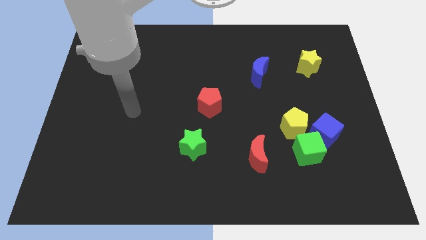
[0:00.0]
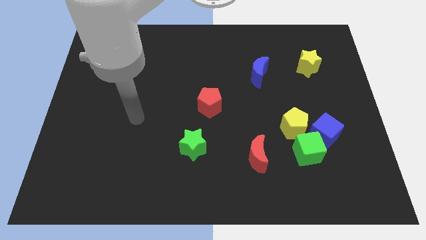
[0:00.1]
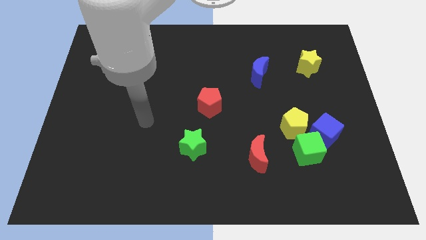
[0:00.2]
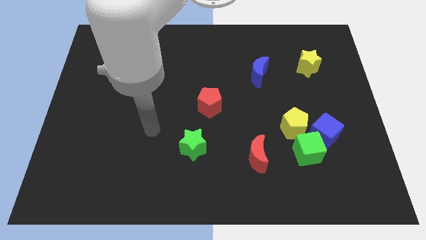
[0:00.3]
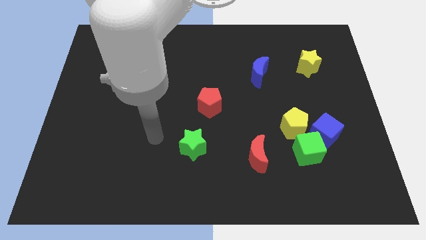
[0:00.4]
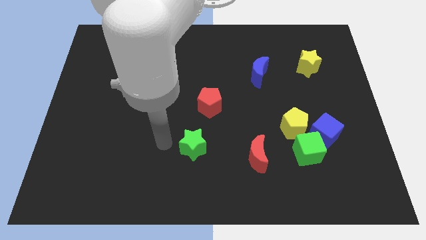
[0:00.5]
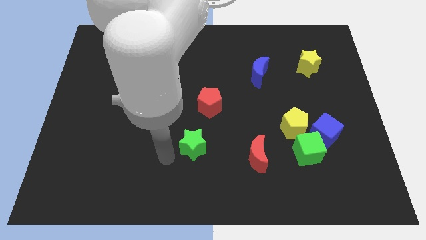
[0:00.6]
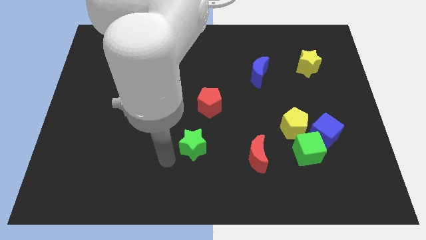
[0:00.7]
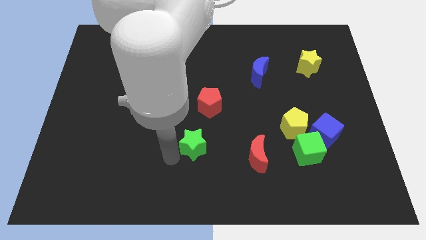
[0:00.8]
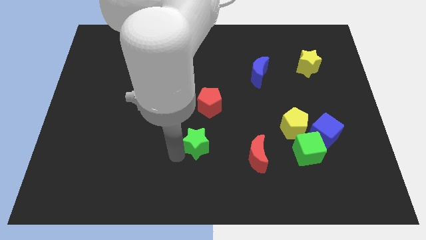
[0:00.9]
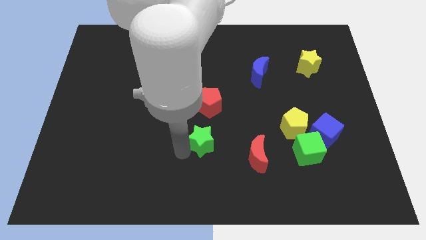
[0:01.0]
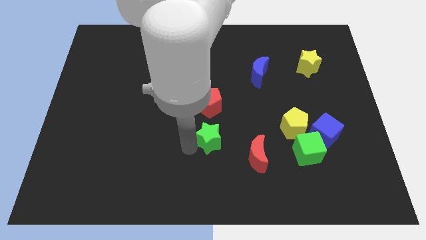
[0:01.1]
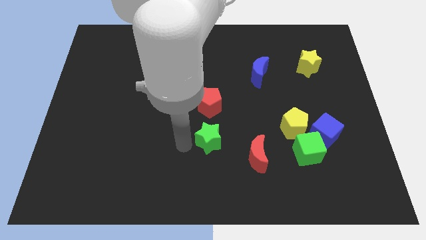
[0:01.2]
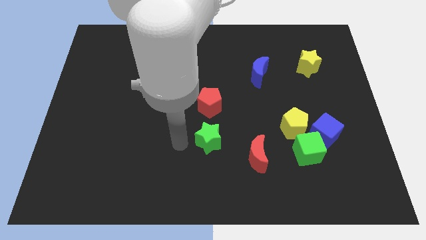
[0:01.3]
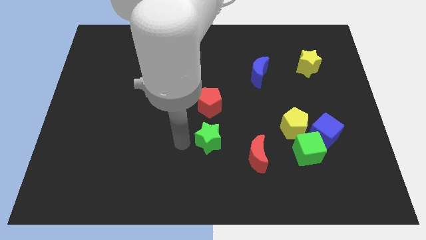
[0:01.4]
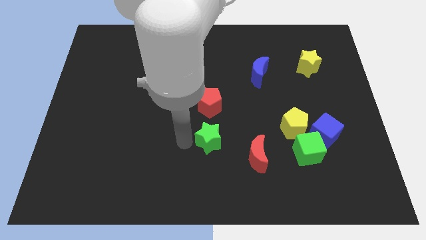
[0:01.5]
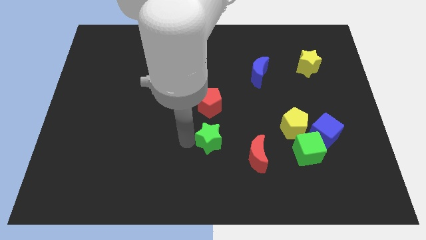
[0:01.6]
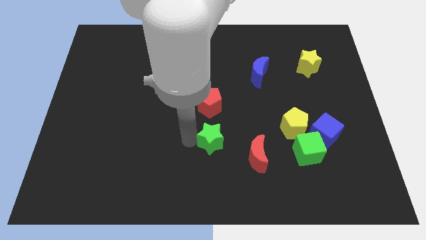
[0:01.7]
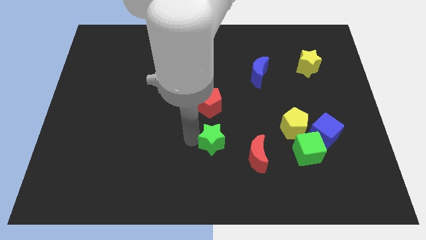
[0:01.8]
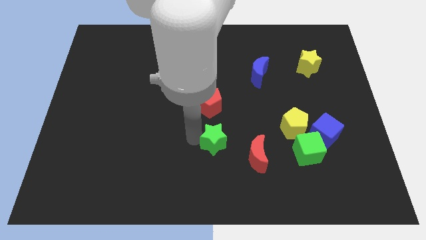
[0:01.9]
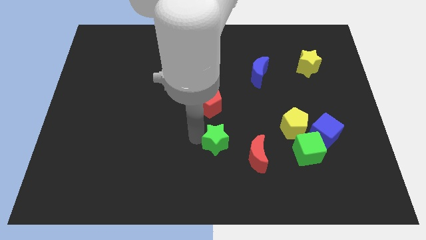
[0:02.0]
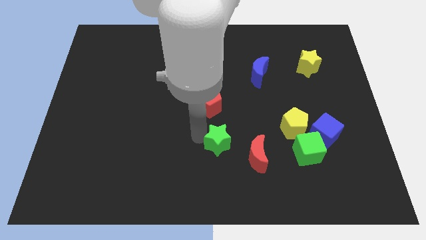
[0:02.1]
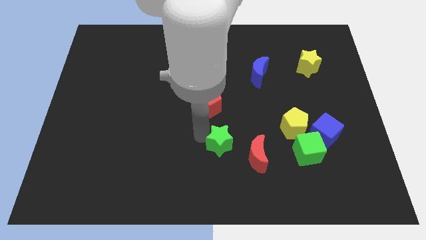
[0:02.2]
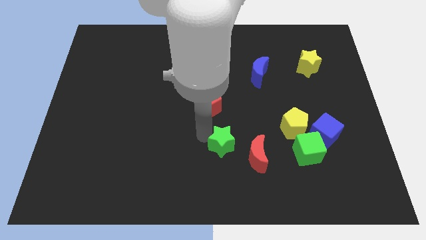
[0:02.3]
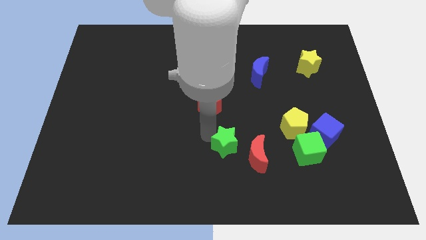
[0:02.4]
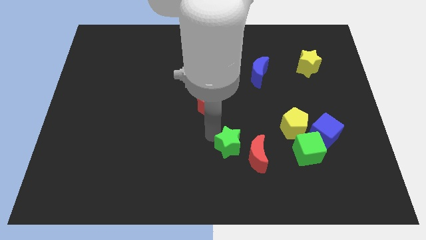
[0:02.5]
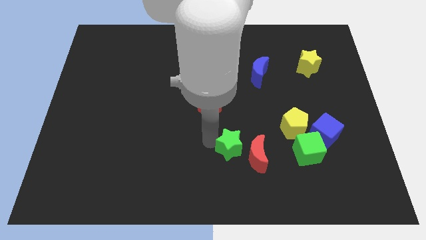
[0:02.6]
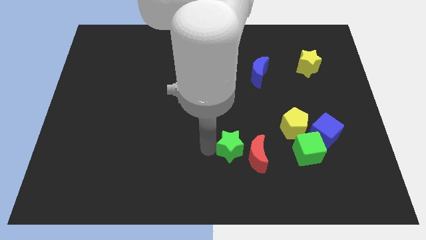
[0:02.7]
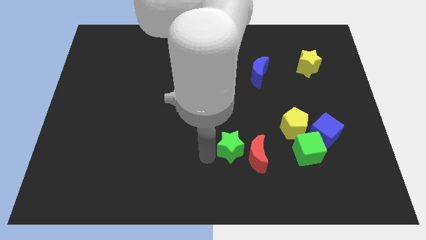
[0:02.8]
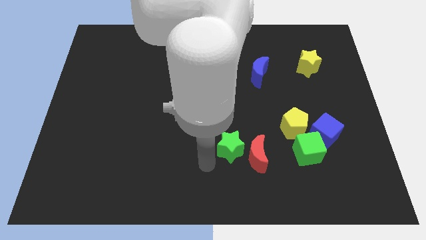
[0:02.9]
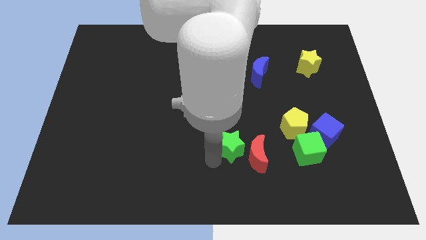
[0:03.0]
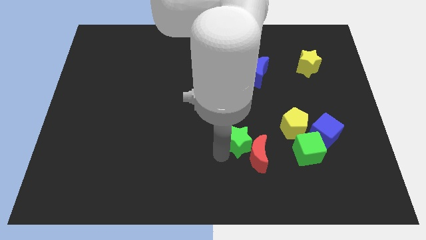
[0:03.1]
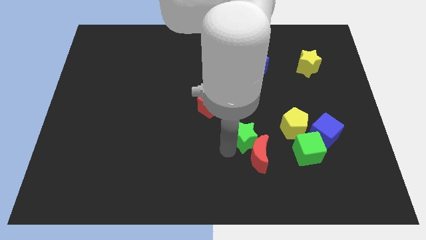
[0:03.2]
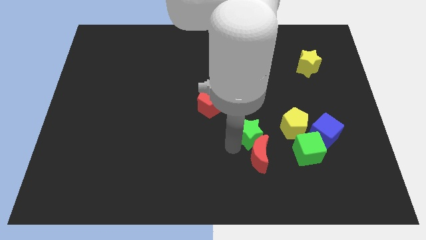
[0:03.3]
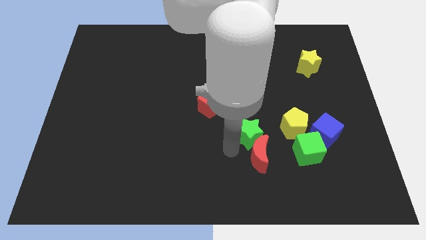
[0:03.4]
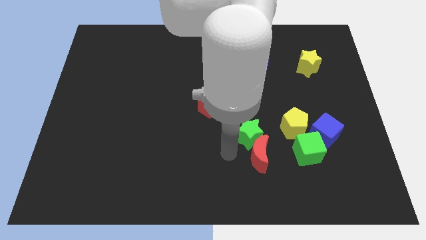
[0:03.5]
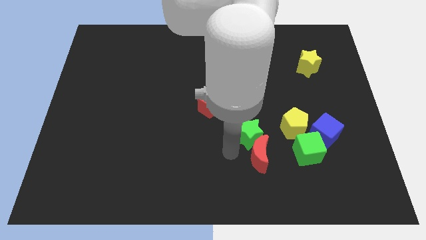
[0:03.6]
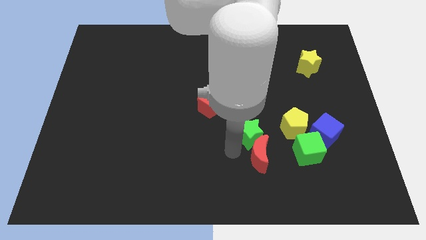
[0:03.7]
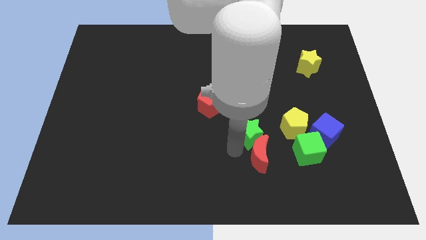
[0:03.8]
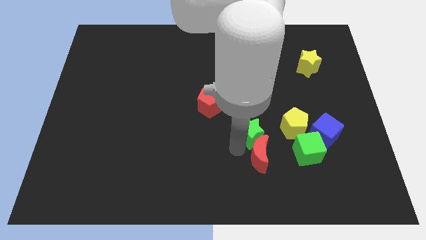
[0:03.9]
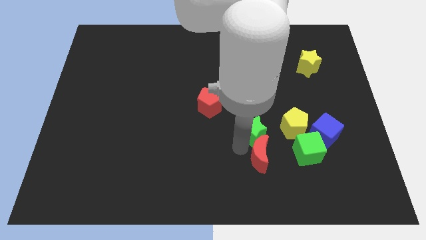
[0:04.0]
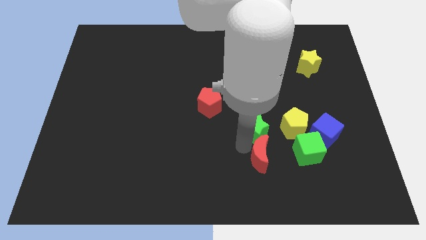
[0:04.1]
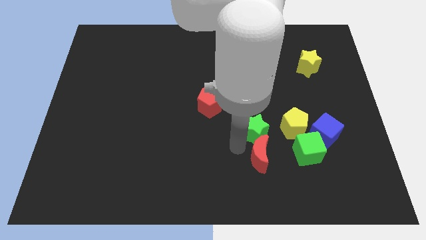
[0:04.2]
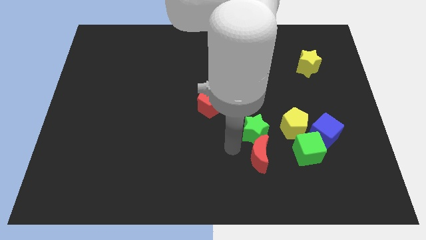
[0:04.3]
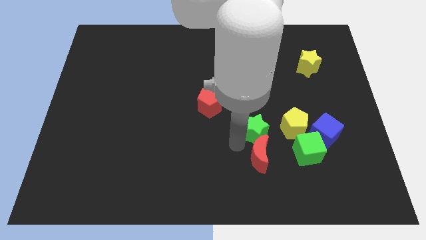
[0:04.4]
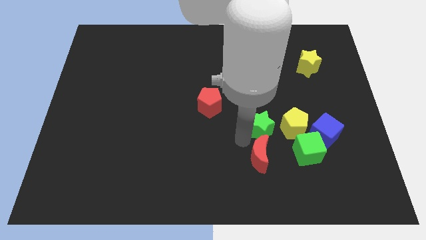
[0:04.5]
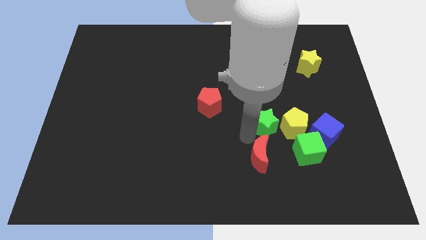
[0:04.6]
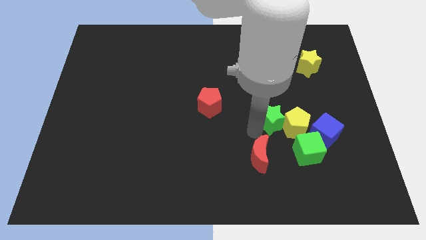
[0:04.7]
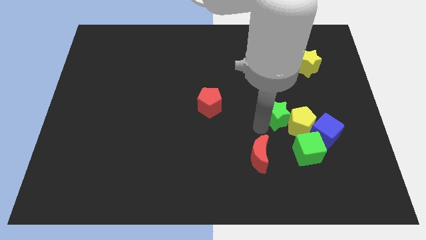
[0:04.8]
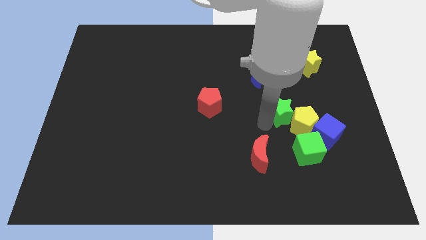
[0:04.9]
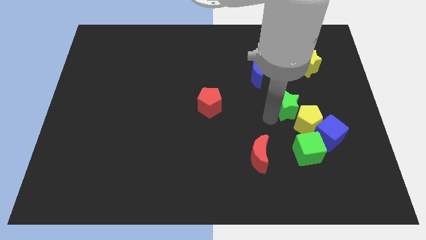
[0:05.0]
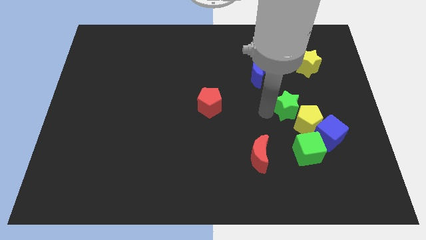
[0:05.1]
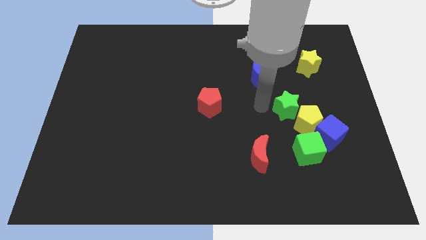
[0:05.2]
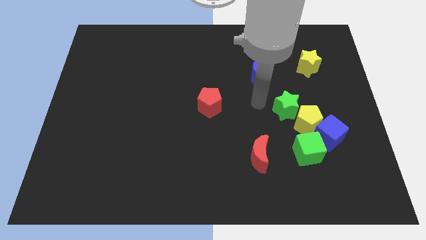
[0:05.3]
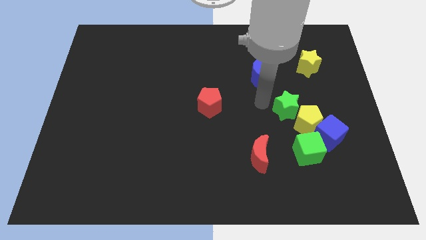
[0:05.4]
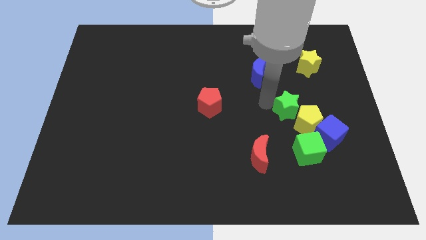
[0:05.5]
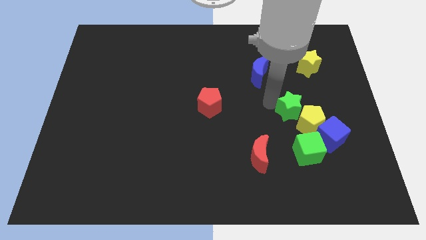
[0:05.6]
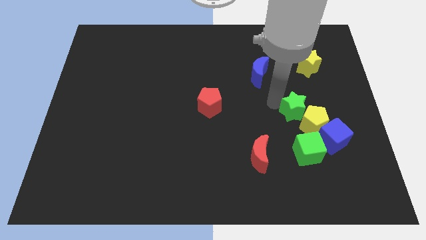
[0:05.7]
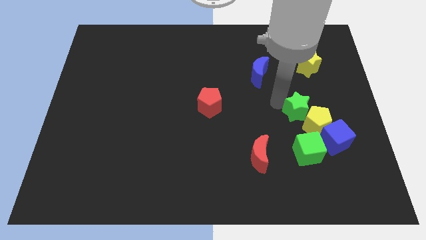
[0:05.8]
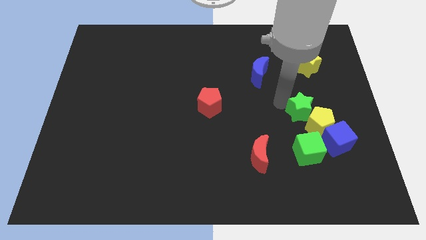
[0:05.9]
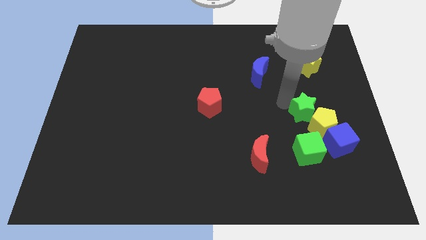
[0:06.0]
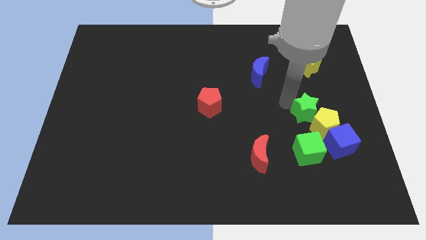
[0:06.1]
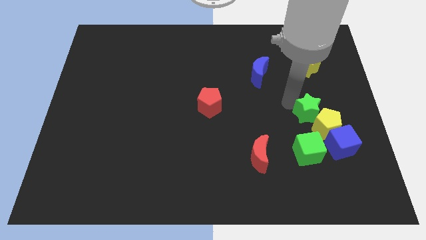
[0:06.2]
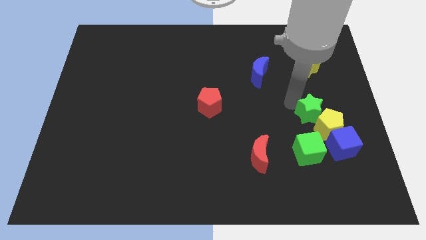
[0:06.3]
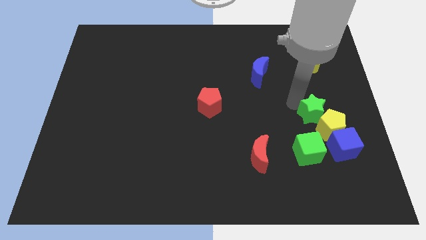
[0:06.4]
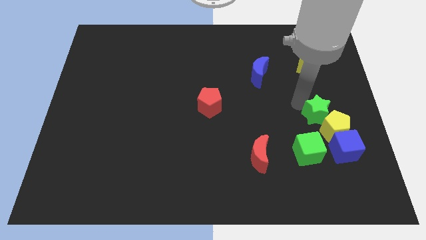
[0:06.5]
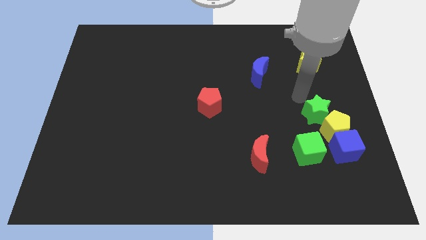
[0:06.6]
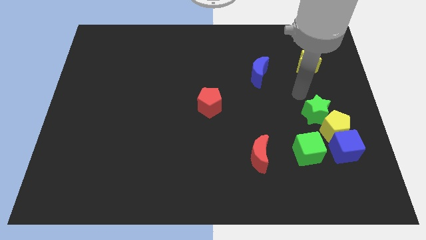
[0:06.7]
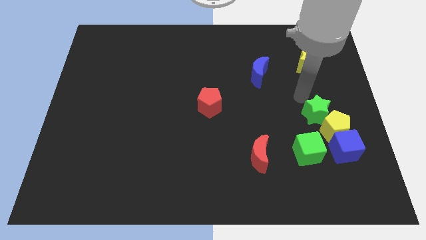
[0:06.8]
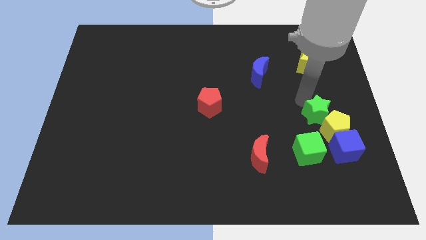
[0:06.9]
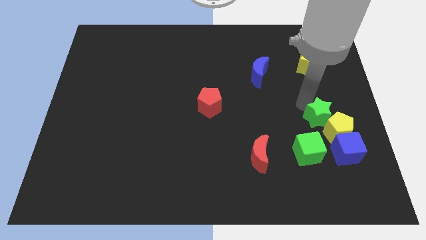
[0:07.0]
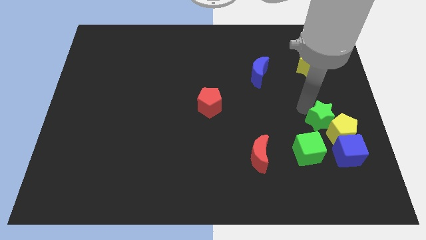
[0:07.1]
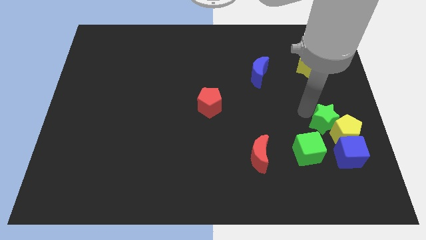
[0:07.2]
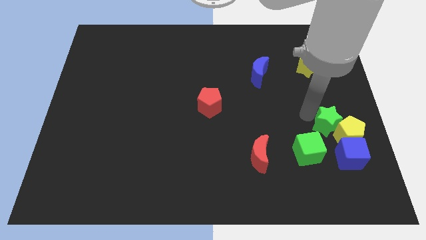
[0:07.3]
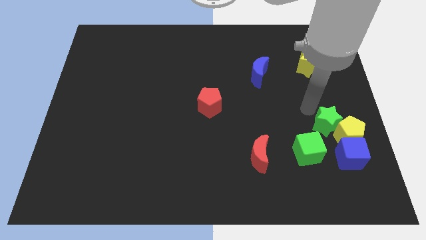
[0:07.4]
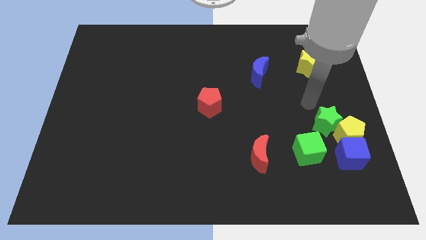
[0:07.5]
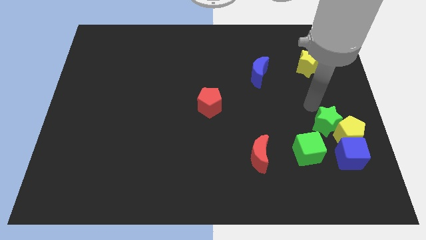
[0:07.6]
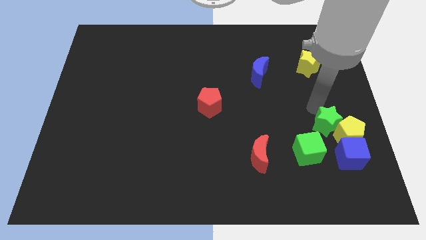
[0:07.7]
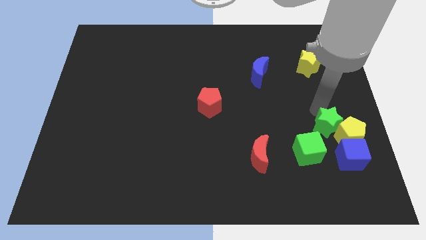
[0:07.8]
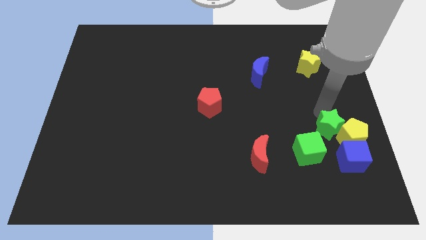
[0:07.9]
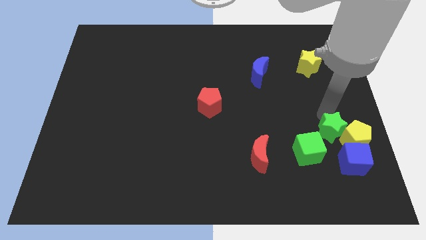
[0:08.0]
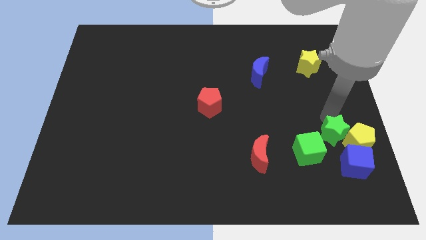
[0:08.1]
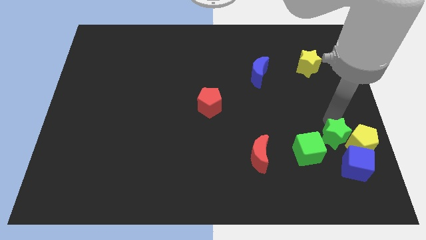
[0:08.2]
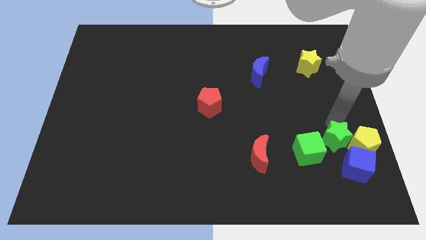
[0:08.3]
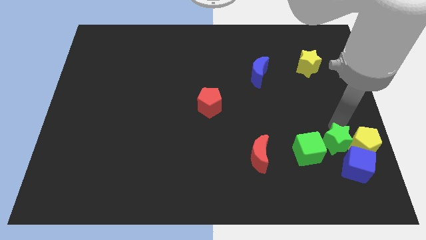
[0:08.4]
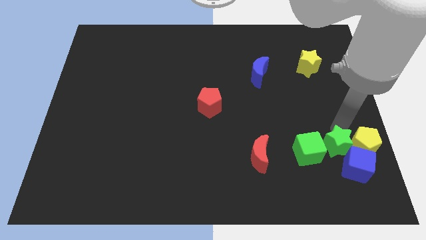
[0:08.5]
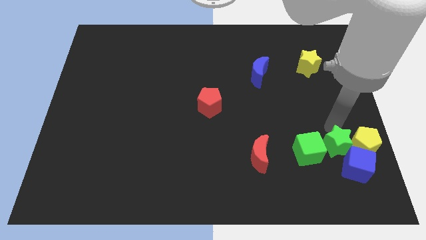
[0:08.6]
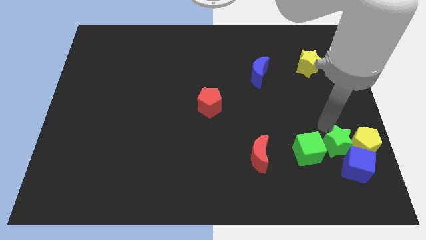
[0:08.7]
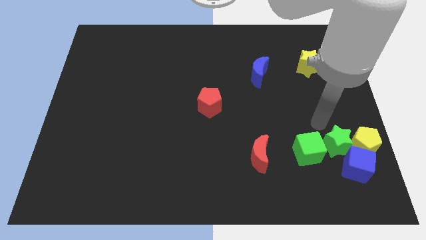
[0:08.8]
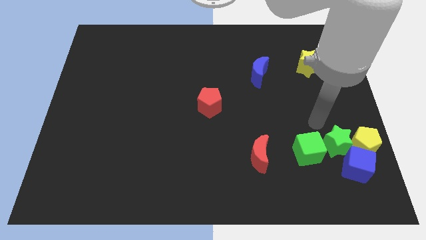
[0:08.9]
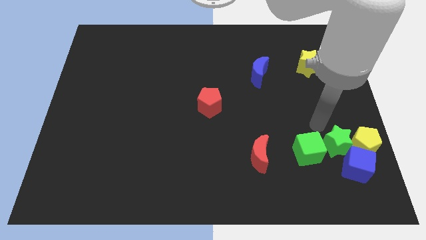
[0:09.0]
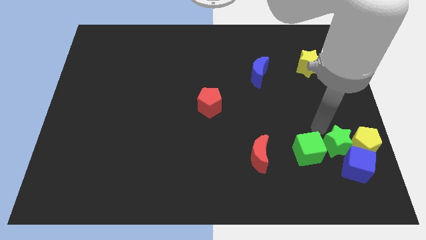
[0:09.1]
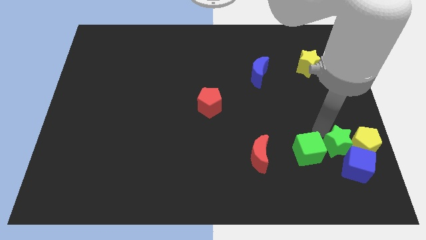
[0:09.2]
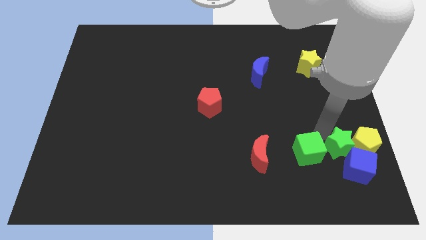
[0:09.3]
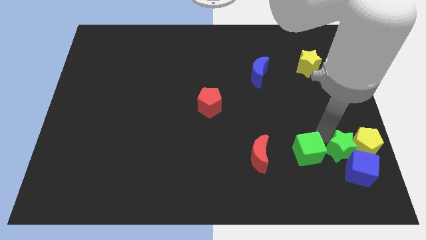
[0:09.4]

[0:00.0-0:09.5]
put the green star towards the blue cube
